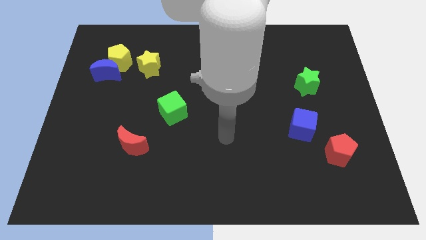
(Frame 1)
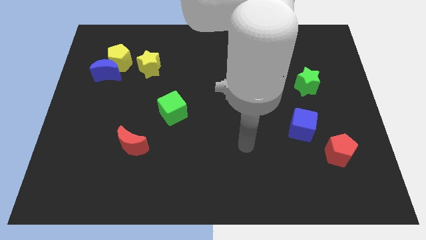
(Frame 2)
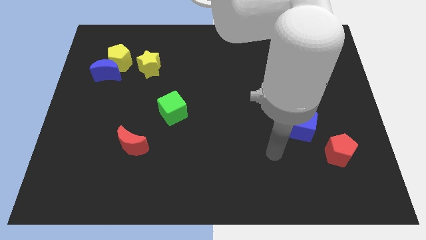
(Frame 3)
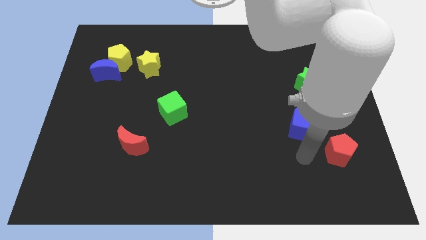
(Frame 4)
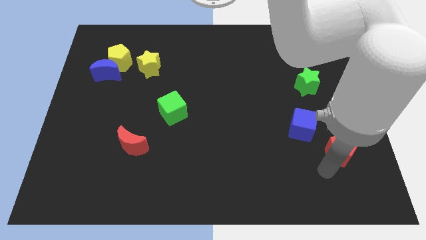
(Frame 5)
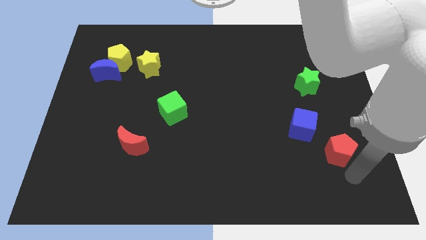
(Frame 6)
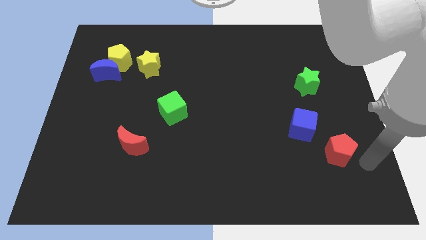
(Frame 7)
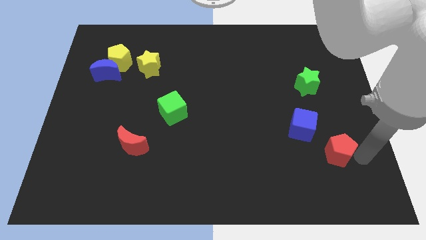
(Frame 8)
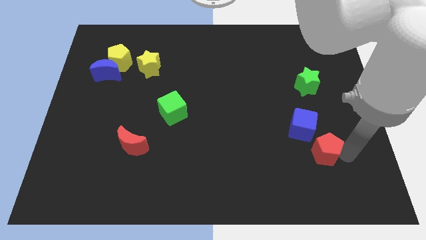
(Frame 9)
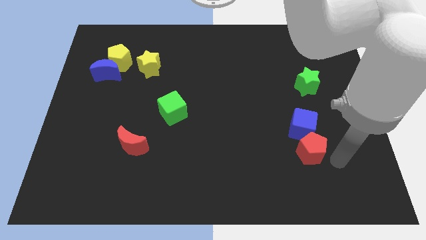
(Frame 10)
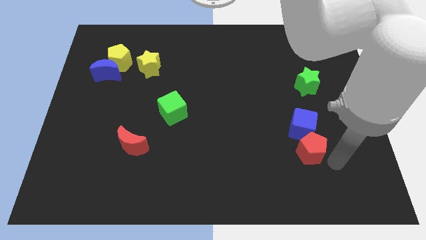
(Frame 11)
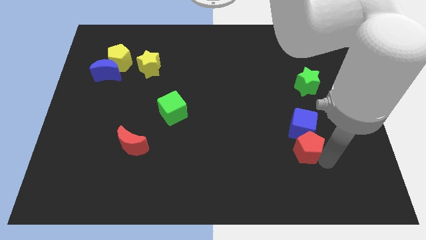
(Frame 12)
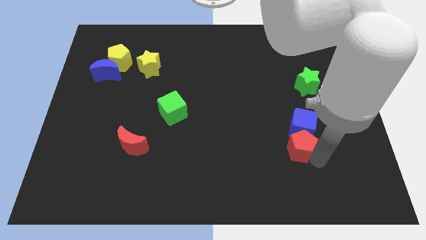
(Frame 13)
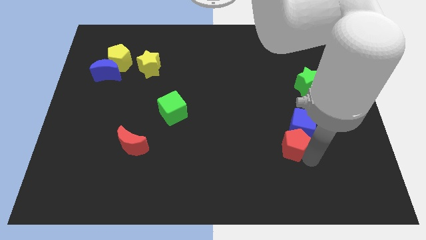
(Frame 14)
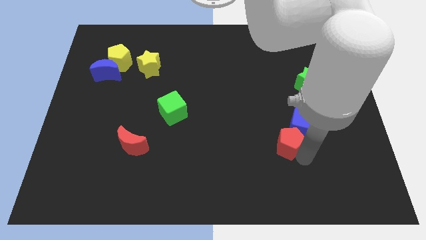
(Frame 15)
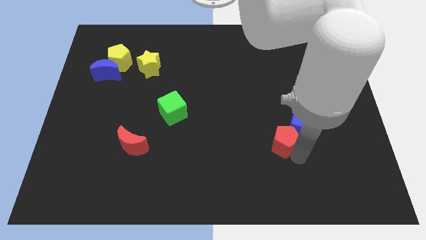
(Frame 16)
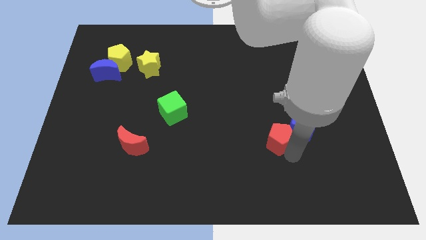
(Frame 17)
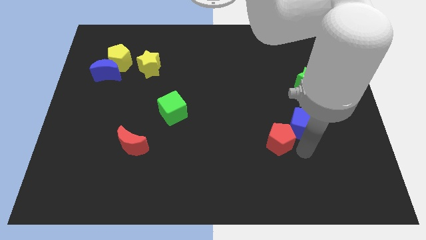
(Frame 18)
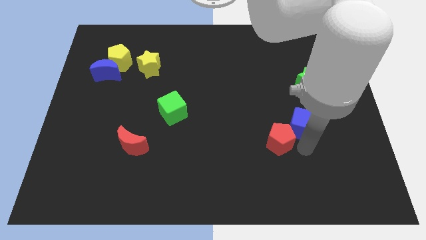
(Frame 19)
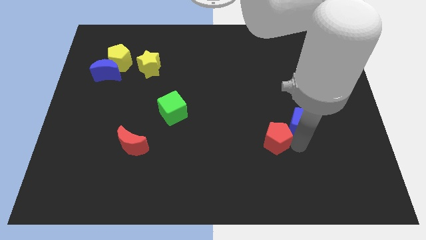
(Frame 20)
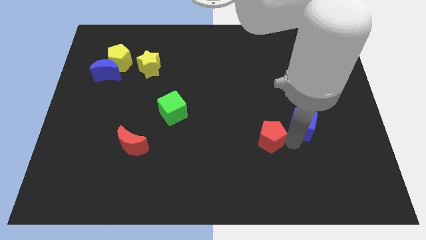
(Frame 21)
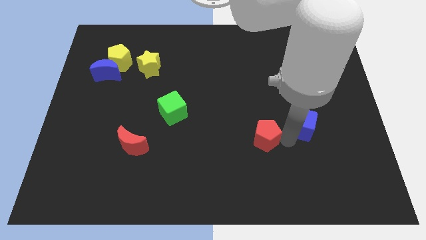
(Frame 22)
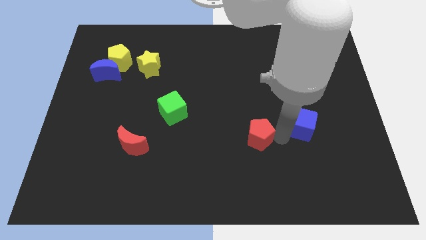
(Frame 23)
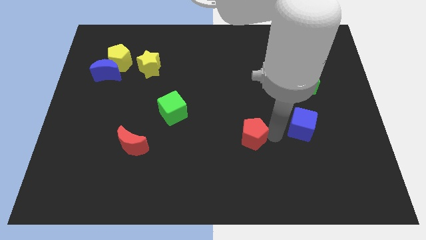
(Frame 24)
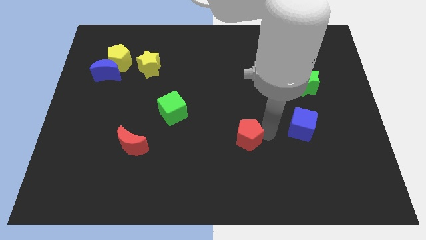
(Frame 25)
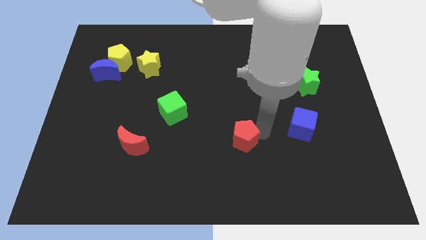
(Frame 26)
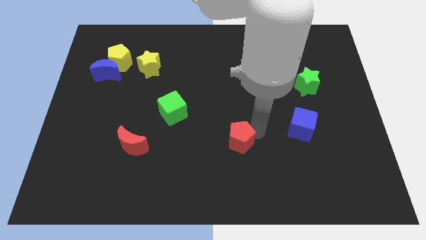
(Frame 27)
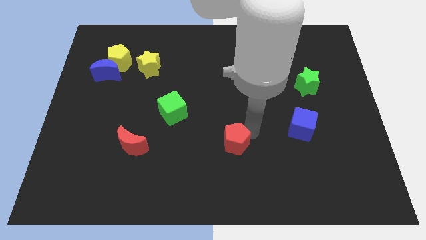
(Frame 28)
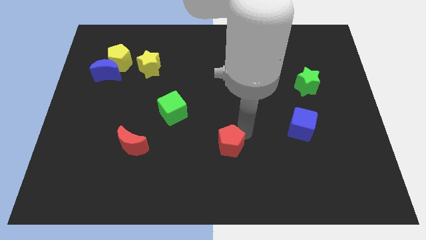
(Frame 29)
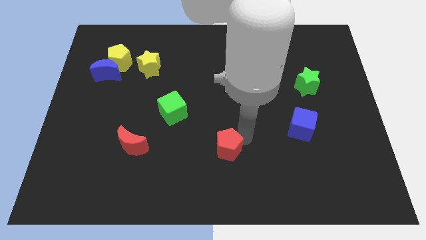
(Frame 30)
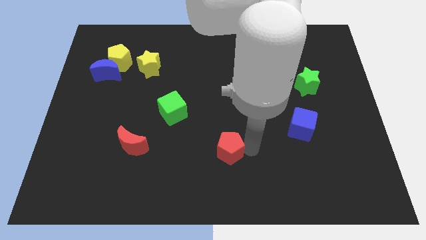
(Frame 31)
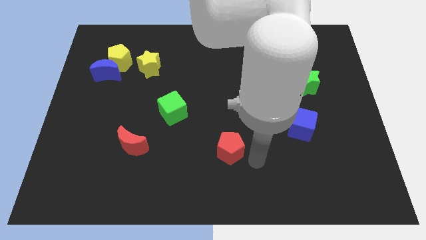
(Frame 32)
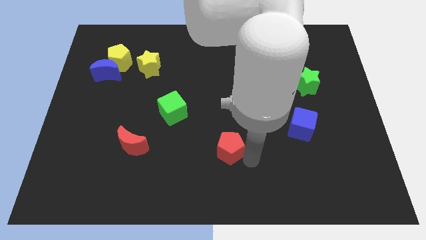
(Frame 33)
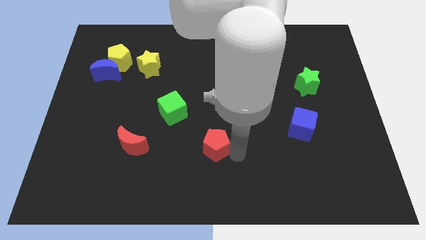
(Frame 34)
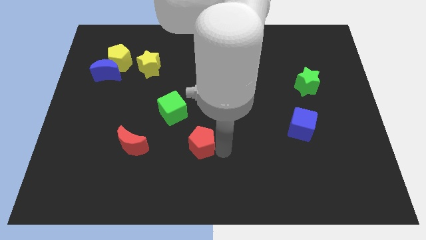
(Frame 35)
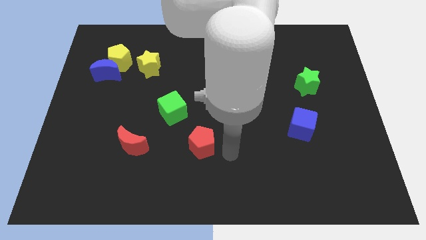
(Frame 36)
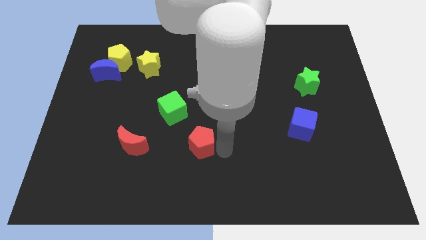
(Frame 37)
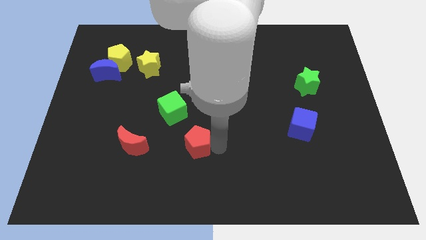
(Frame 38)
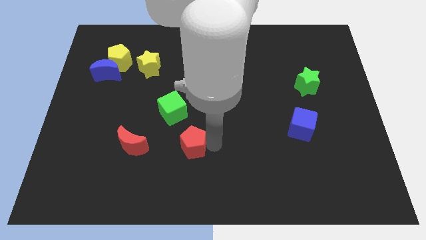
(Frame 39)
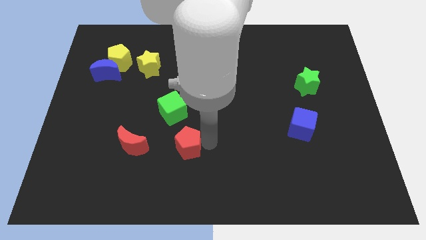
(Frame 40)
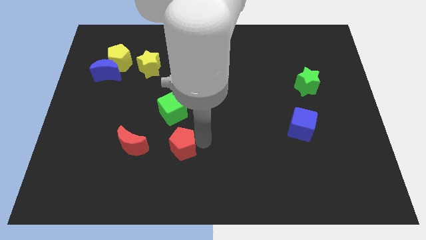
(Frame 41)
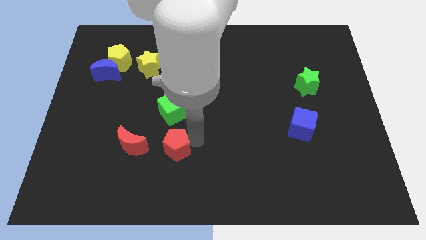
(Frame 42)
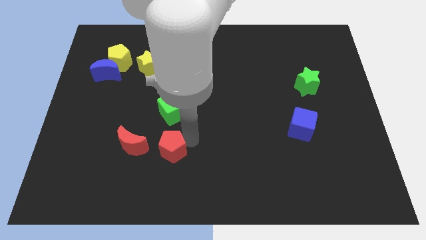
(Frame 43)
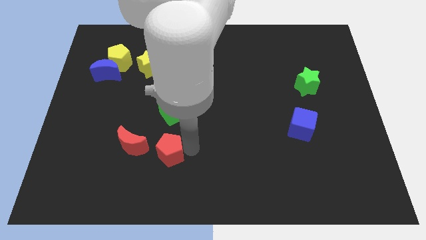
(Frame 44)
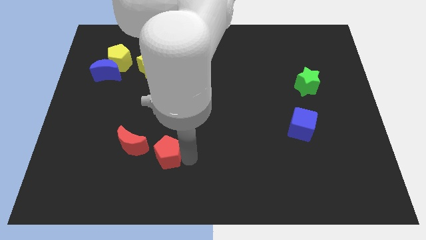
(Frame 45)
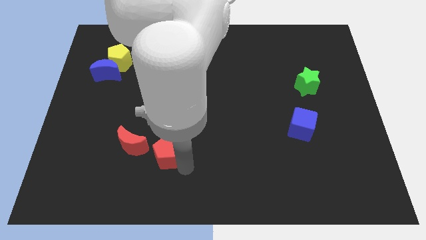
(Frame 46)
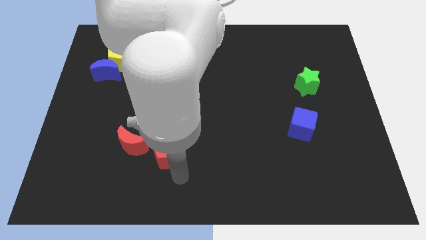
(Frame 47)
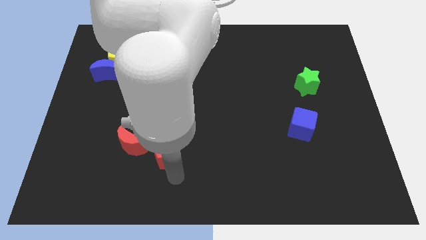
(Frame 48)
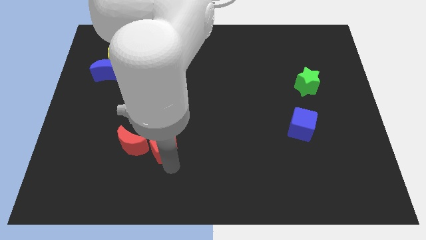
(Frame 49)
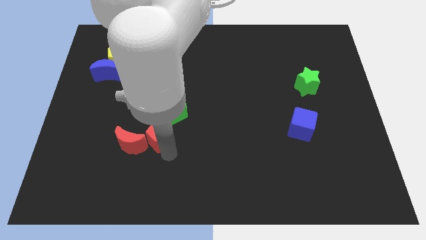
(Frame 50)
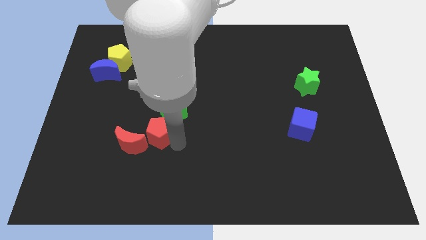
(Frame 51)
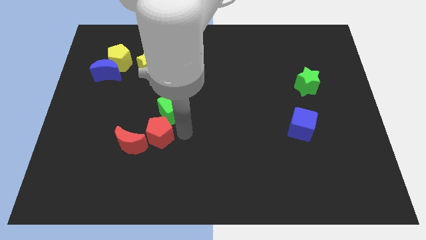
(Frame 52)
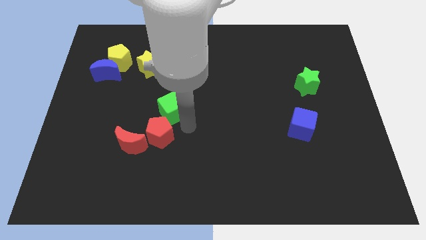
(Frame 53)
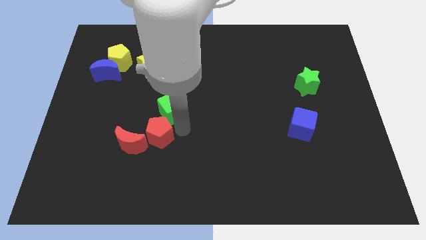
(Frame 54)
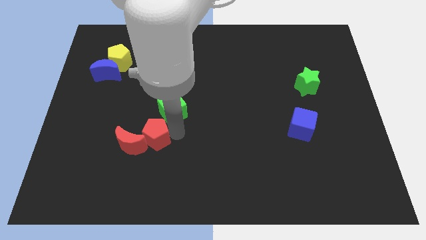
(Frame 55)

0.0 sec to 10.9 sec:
push the red pentagon to the red moon

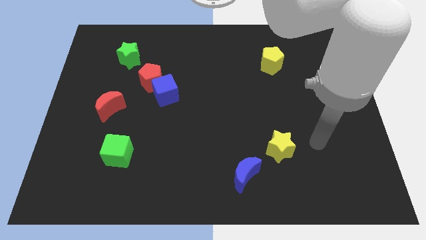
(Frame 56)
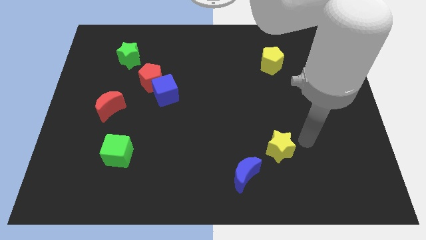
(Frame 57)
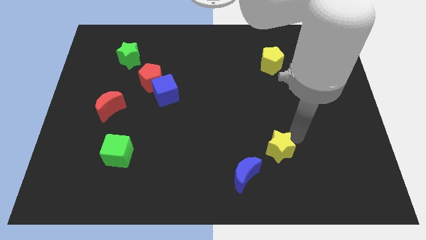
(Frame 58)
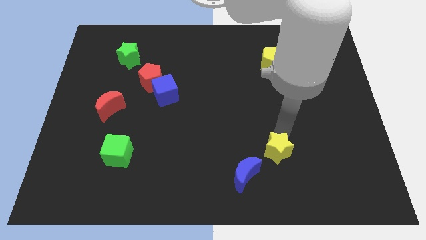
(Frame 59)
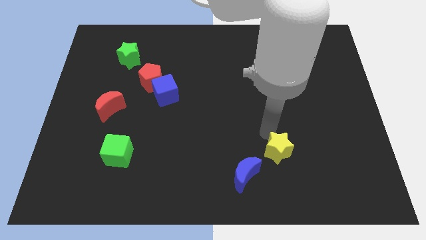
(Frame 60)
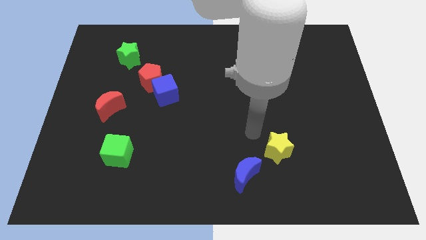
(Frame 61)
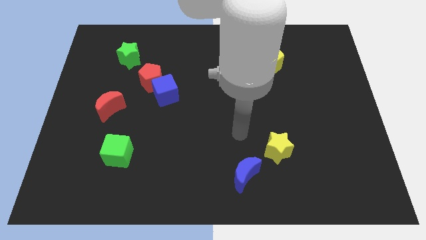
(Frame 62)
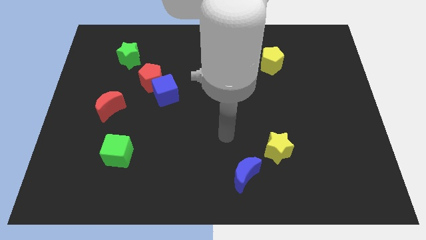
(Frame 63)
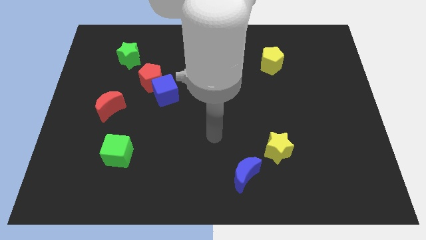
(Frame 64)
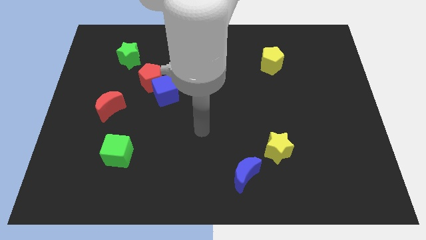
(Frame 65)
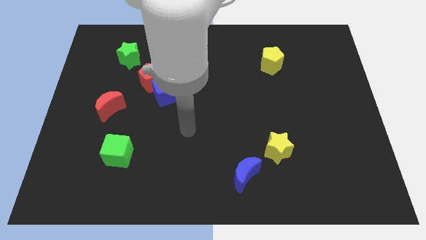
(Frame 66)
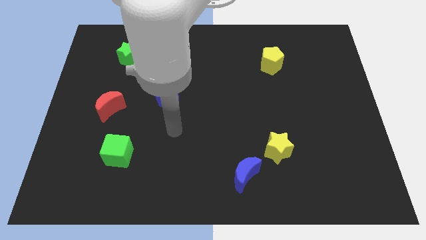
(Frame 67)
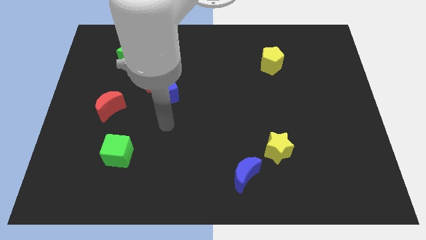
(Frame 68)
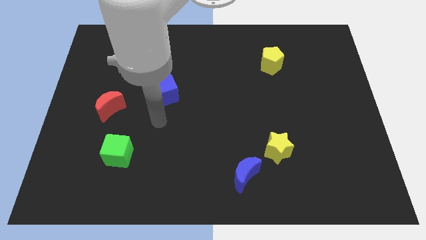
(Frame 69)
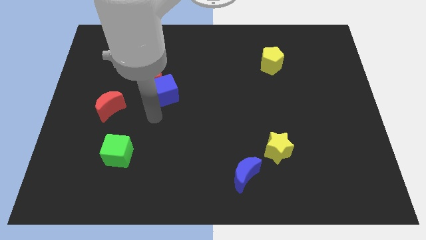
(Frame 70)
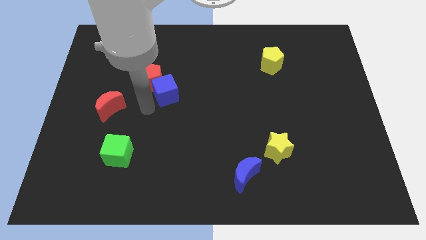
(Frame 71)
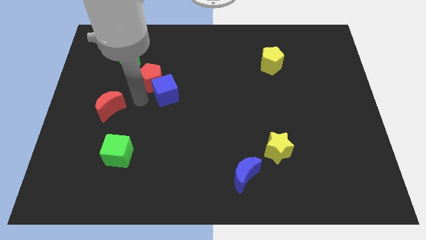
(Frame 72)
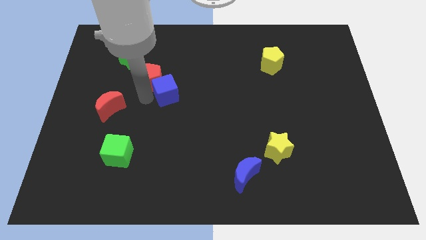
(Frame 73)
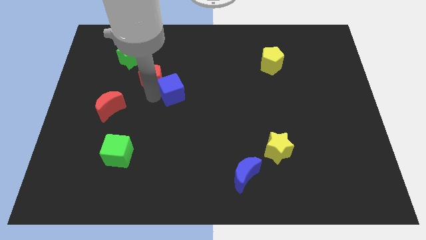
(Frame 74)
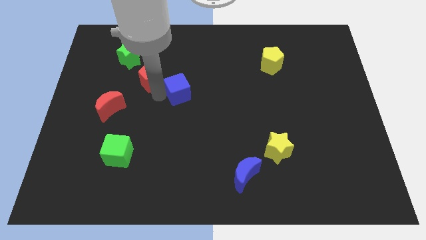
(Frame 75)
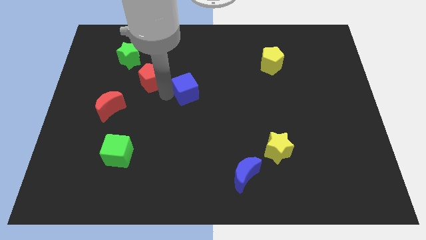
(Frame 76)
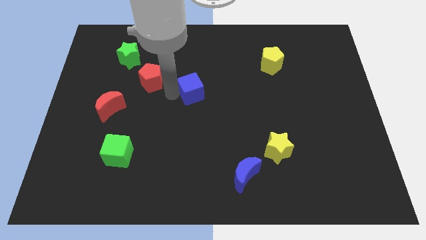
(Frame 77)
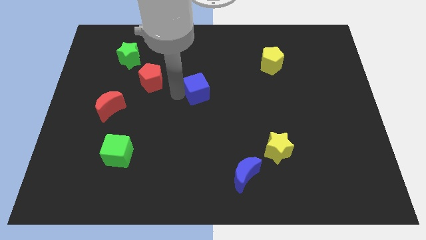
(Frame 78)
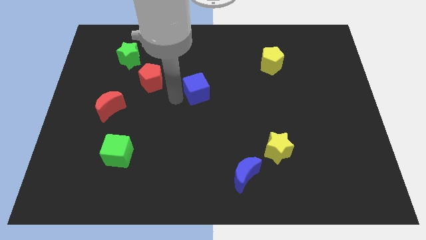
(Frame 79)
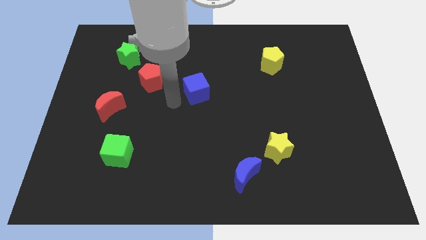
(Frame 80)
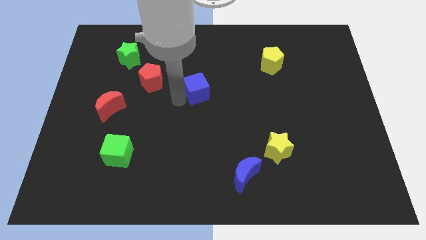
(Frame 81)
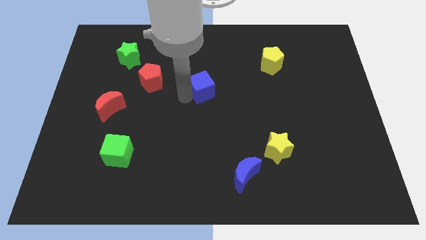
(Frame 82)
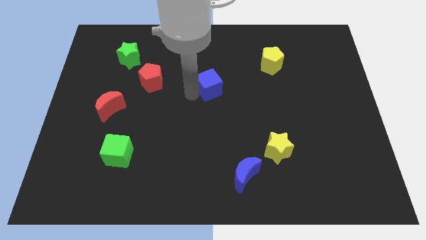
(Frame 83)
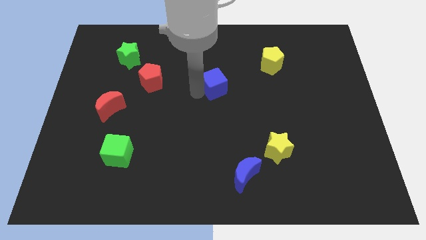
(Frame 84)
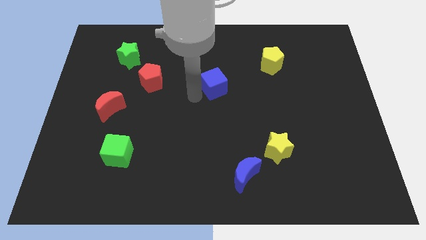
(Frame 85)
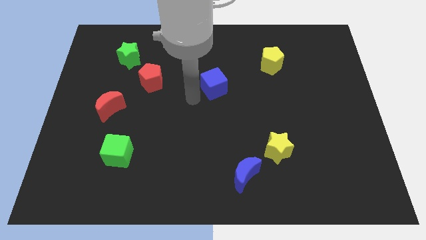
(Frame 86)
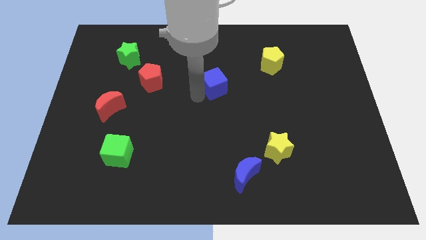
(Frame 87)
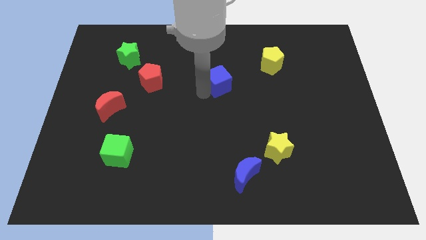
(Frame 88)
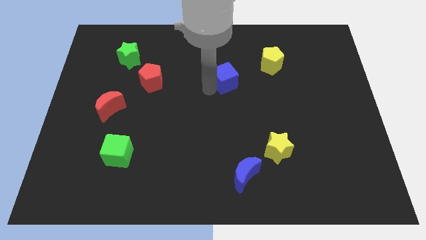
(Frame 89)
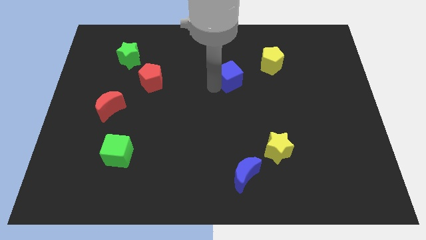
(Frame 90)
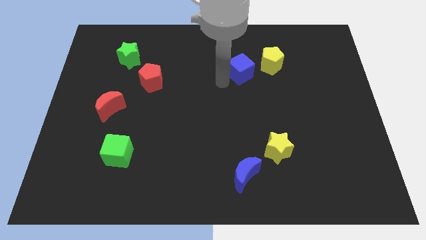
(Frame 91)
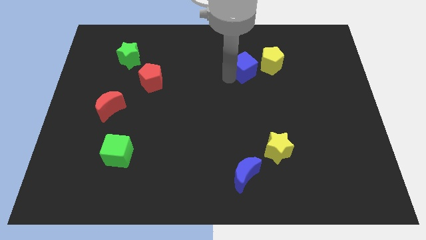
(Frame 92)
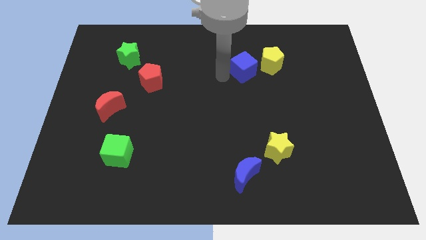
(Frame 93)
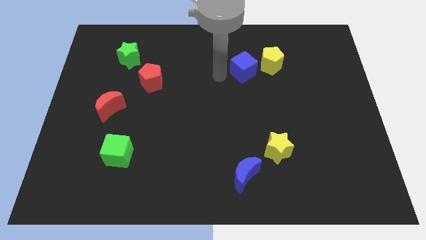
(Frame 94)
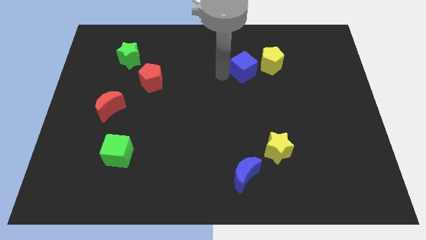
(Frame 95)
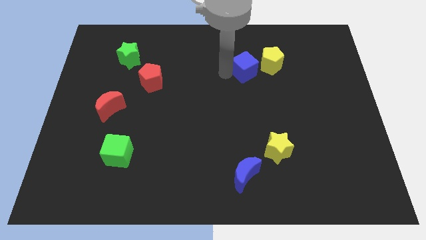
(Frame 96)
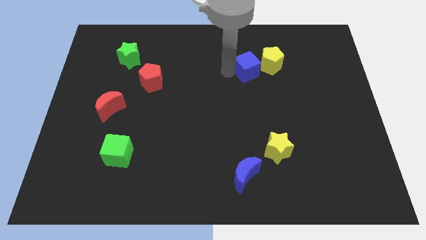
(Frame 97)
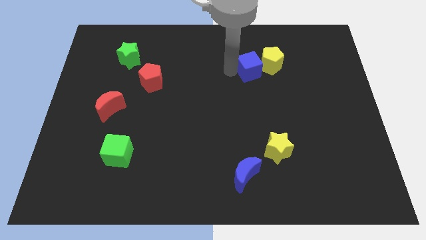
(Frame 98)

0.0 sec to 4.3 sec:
push the blue cube towards the yellow pentagon
